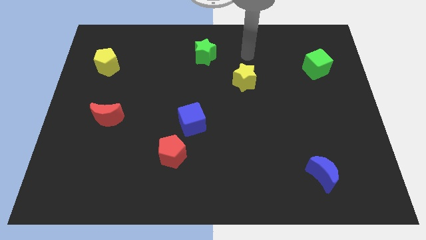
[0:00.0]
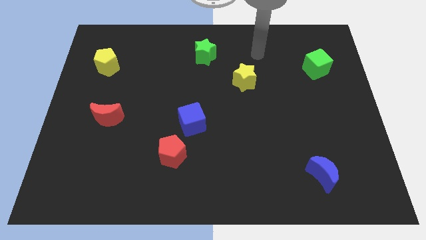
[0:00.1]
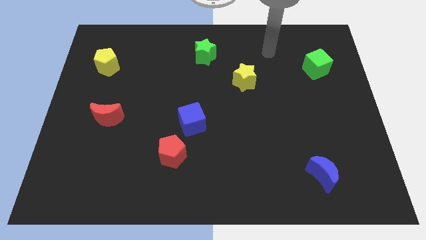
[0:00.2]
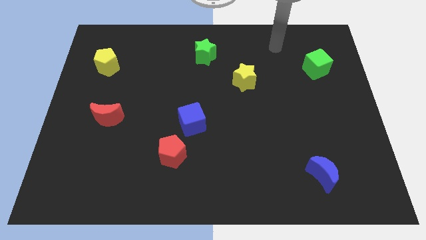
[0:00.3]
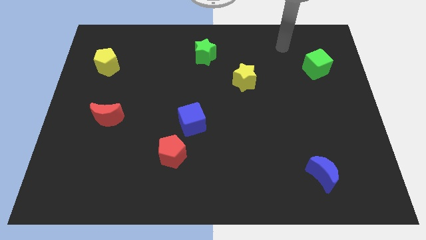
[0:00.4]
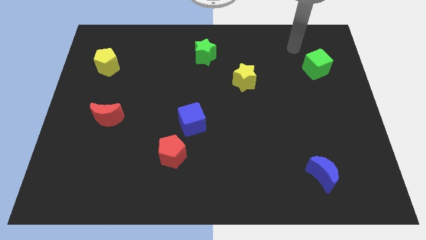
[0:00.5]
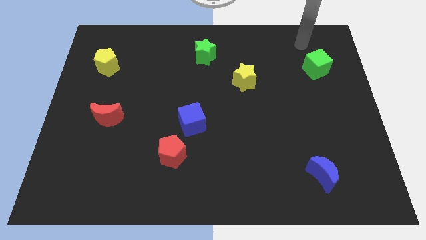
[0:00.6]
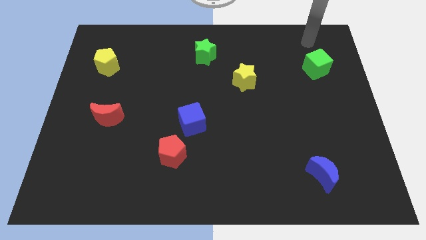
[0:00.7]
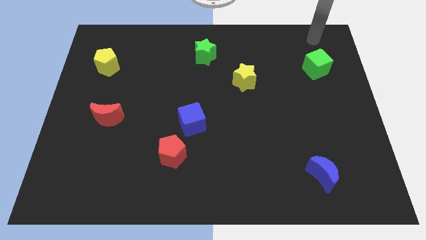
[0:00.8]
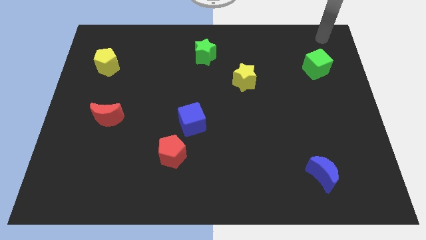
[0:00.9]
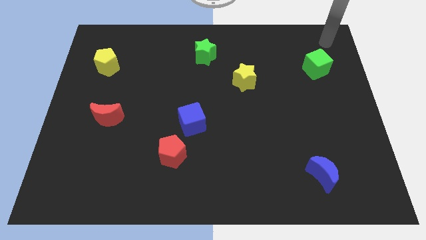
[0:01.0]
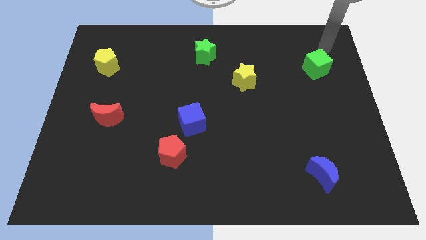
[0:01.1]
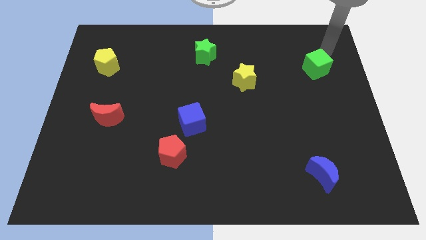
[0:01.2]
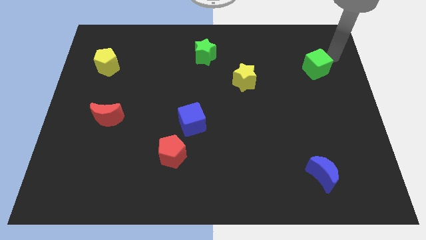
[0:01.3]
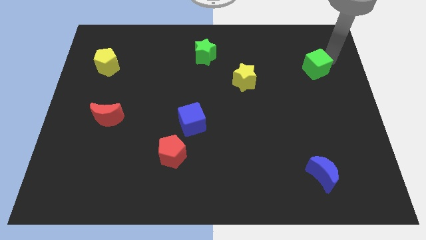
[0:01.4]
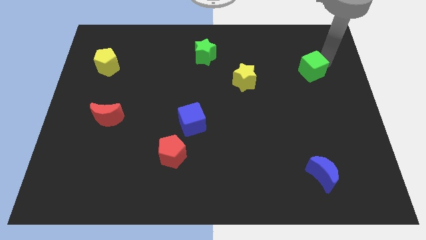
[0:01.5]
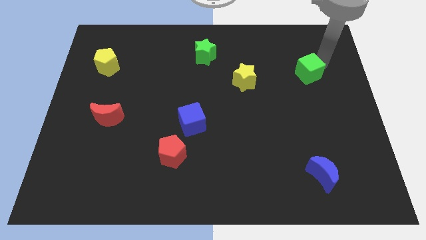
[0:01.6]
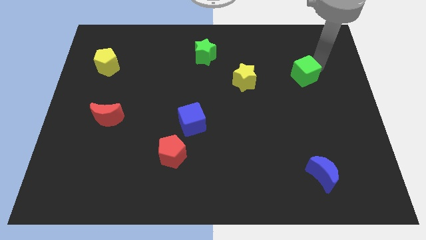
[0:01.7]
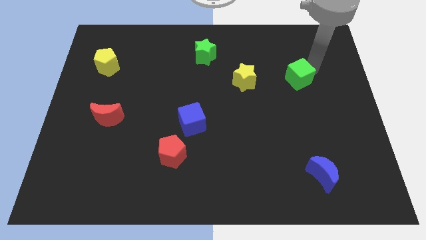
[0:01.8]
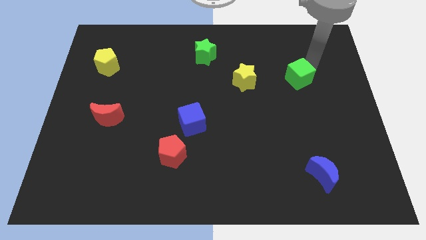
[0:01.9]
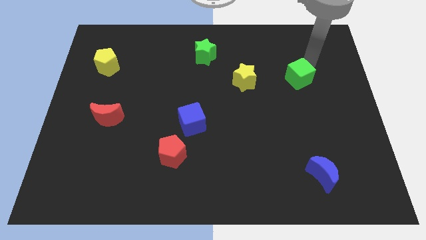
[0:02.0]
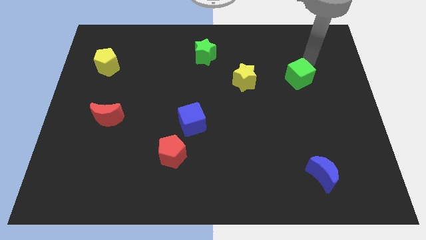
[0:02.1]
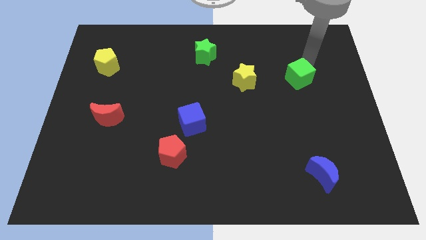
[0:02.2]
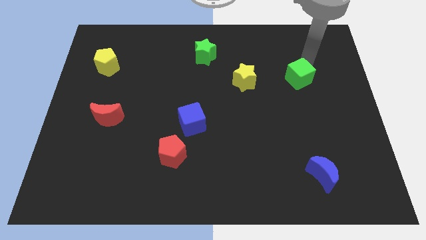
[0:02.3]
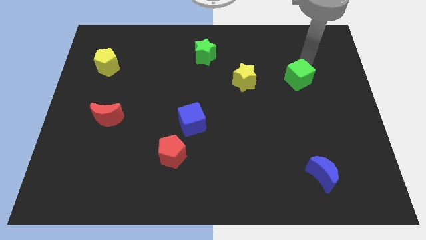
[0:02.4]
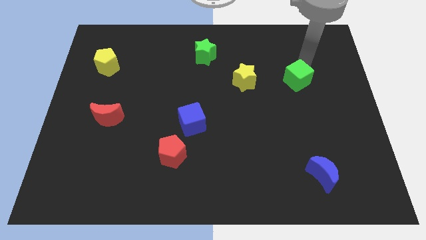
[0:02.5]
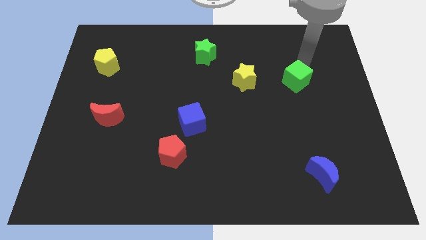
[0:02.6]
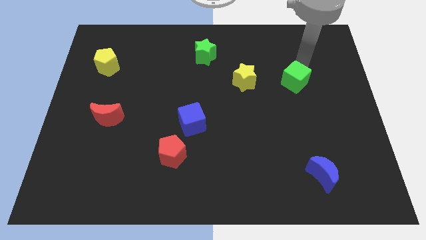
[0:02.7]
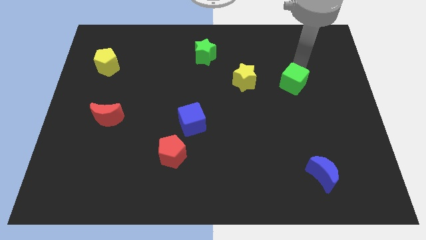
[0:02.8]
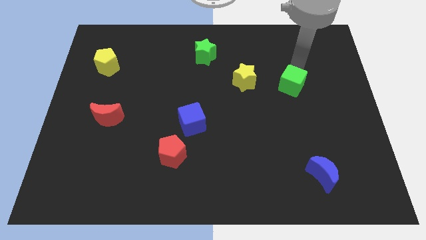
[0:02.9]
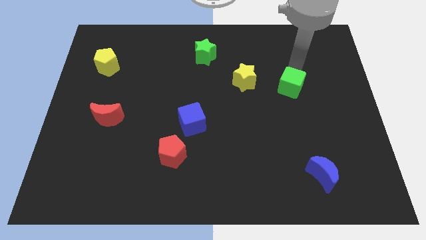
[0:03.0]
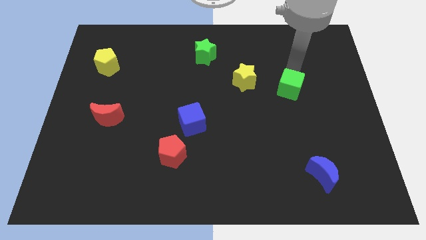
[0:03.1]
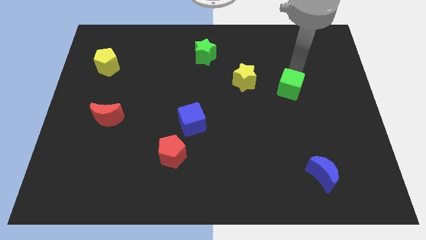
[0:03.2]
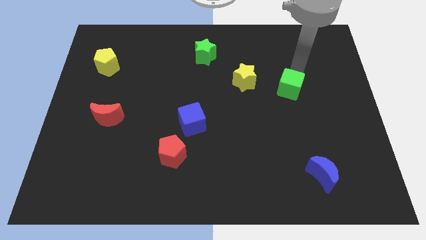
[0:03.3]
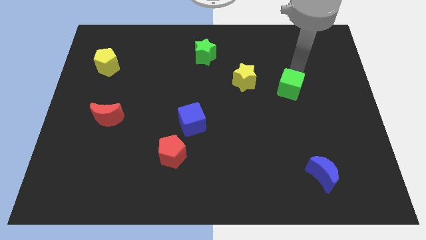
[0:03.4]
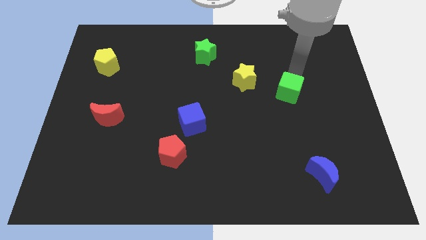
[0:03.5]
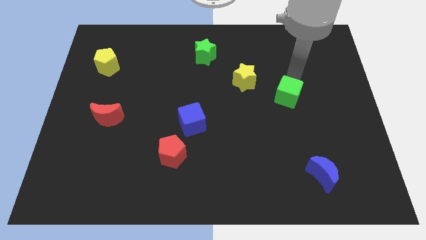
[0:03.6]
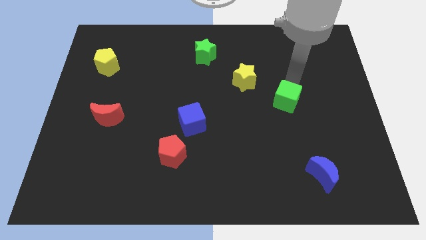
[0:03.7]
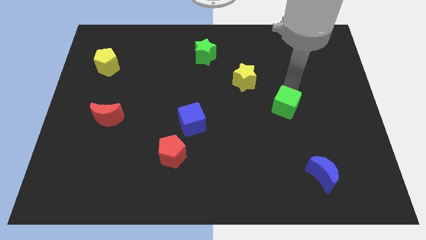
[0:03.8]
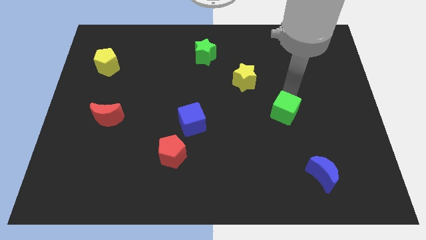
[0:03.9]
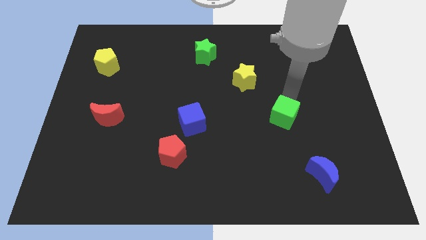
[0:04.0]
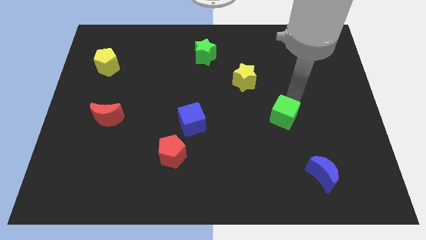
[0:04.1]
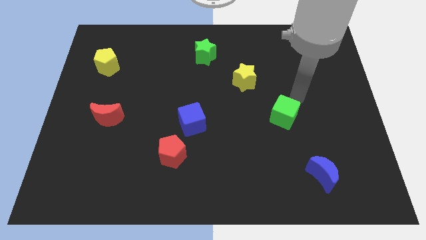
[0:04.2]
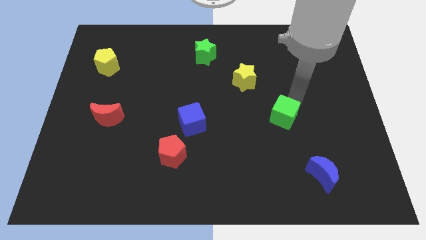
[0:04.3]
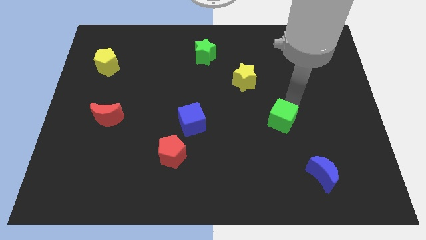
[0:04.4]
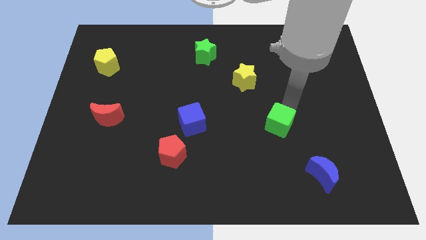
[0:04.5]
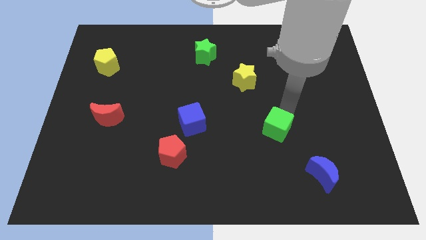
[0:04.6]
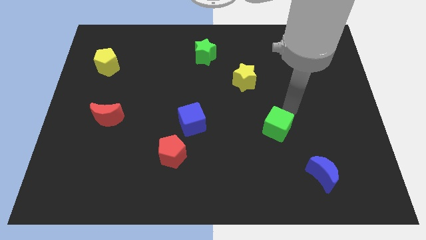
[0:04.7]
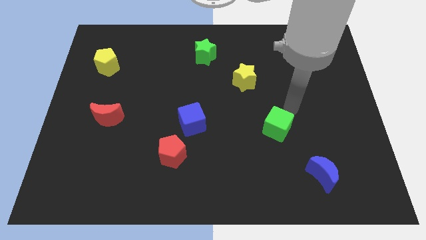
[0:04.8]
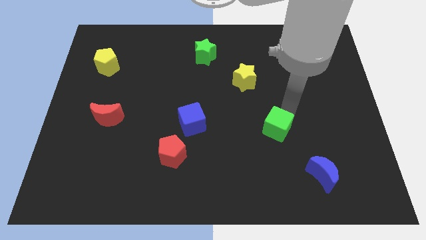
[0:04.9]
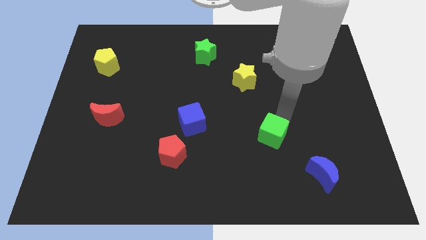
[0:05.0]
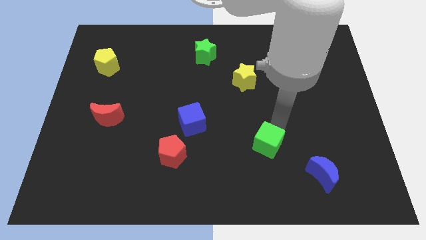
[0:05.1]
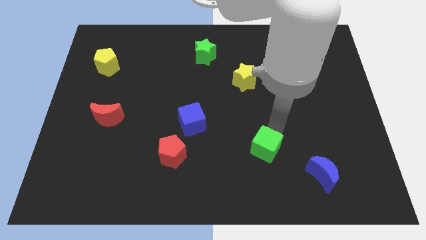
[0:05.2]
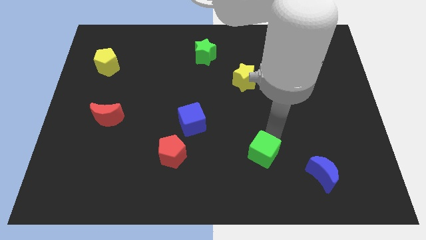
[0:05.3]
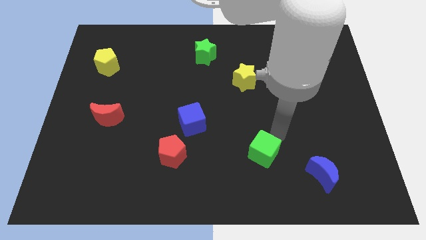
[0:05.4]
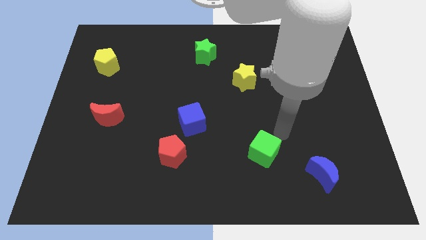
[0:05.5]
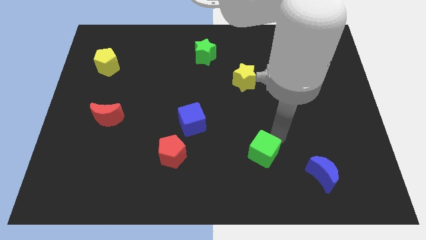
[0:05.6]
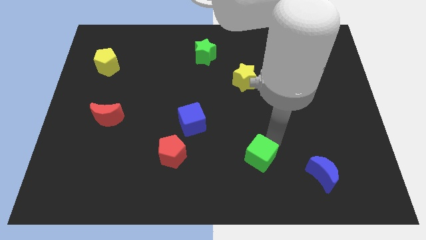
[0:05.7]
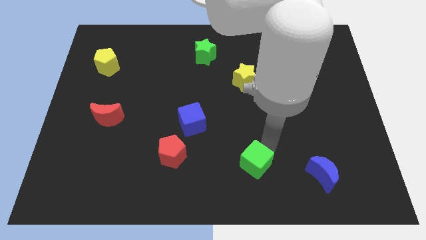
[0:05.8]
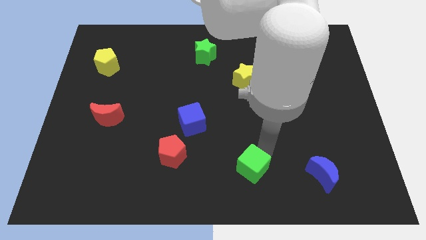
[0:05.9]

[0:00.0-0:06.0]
slide the green cube to the bottom side

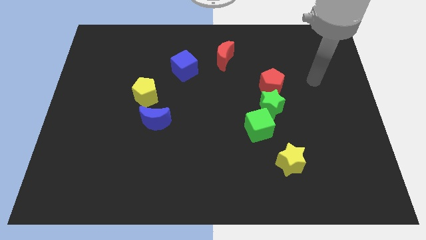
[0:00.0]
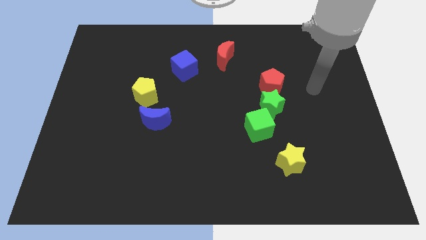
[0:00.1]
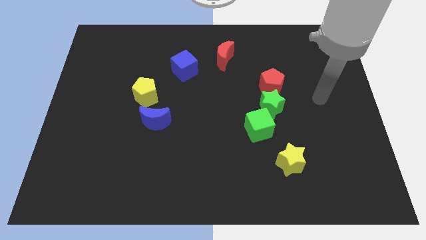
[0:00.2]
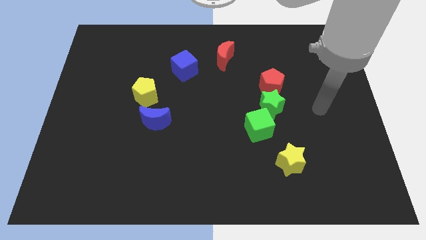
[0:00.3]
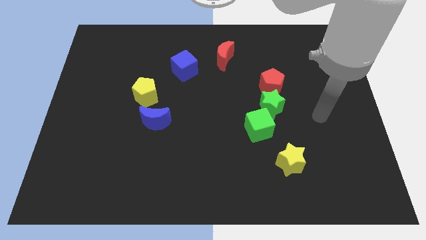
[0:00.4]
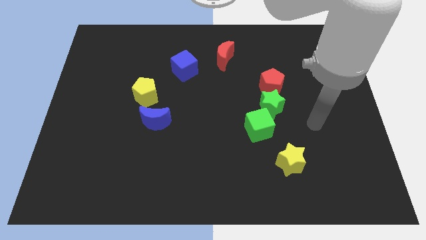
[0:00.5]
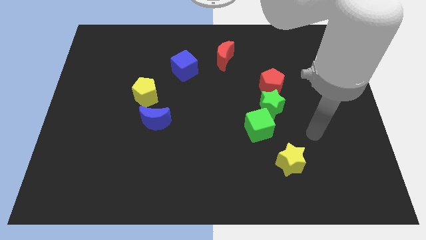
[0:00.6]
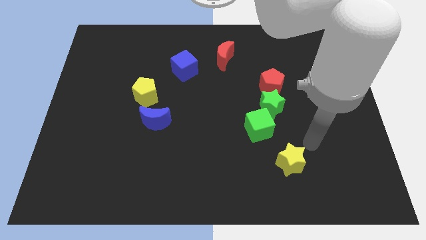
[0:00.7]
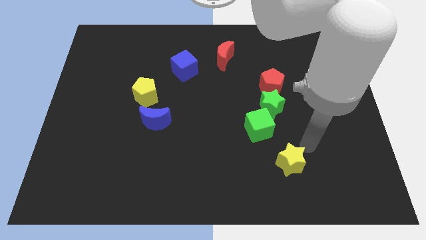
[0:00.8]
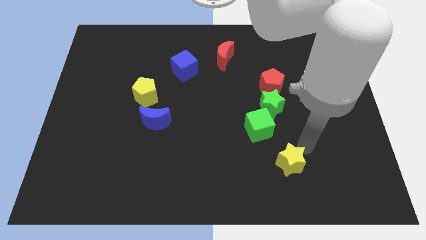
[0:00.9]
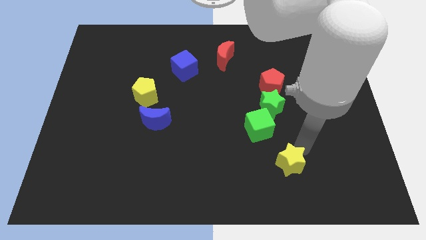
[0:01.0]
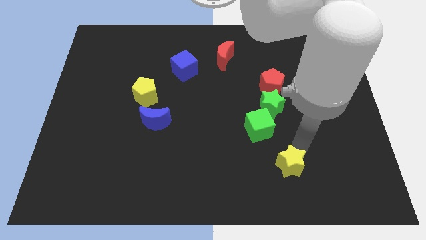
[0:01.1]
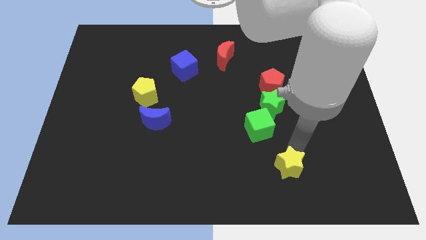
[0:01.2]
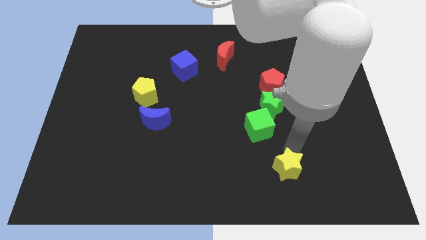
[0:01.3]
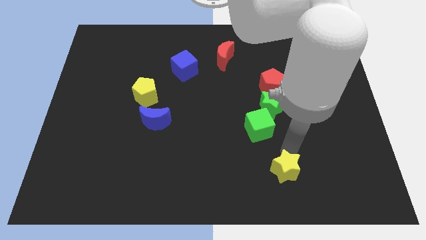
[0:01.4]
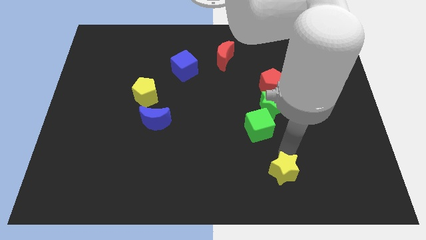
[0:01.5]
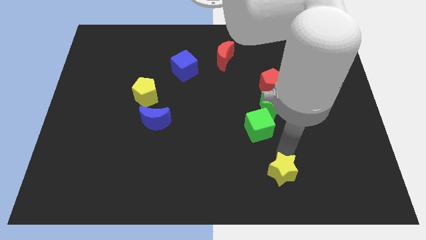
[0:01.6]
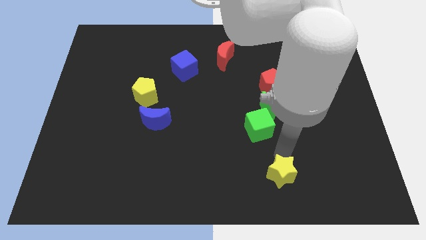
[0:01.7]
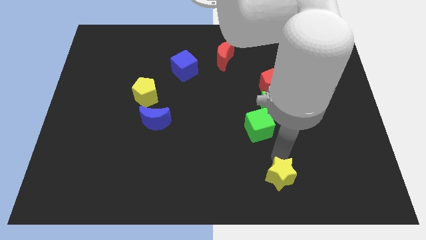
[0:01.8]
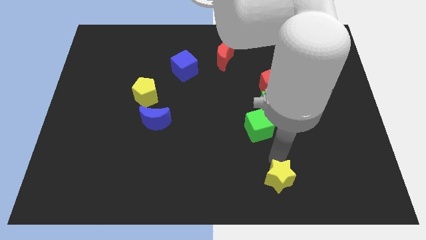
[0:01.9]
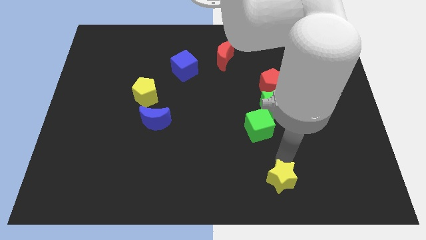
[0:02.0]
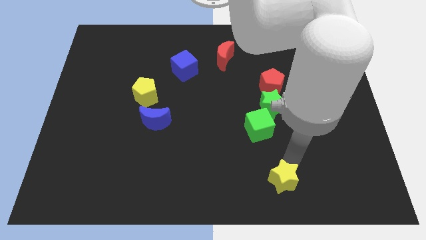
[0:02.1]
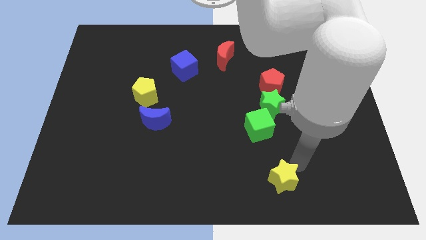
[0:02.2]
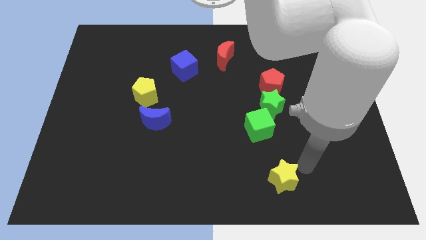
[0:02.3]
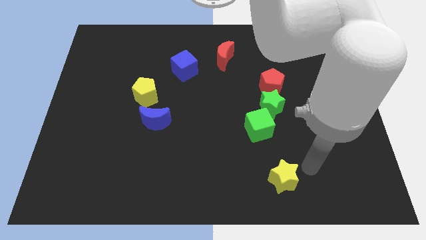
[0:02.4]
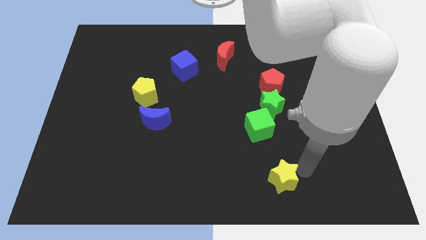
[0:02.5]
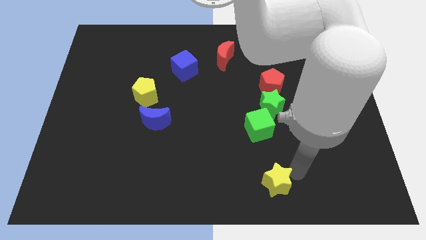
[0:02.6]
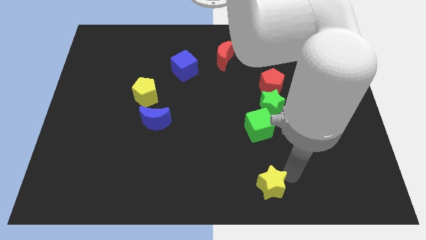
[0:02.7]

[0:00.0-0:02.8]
put the yellow star to the bottom
